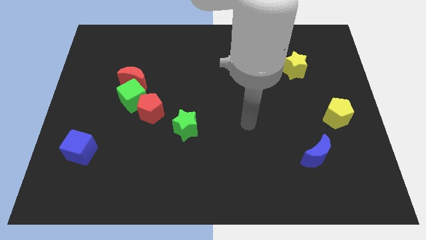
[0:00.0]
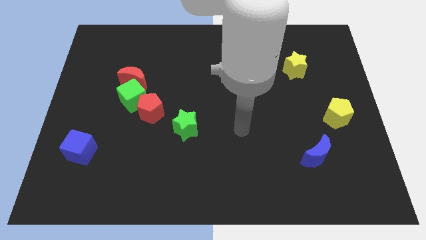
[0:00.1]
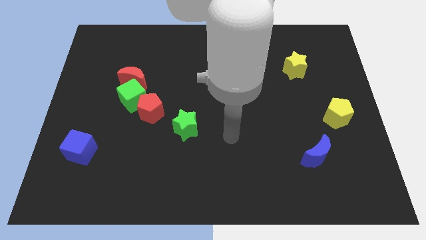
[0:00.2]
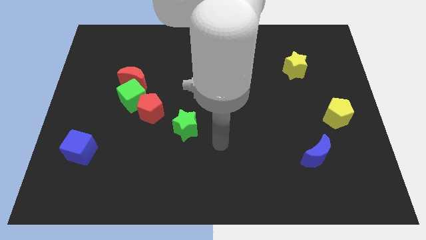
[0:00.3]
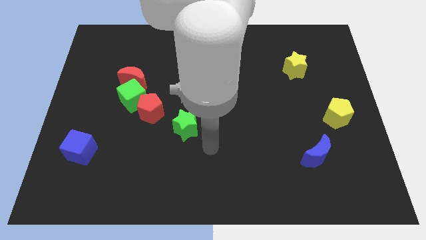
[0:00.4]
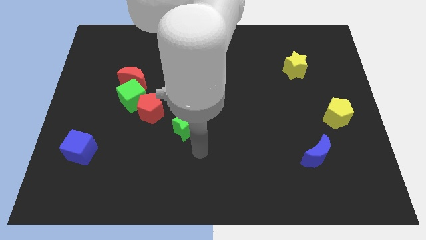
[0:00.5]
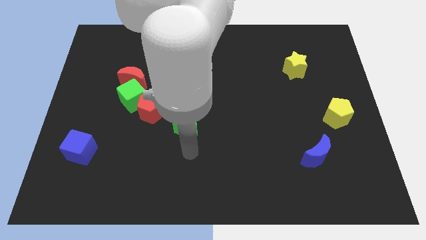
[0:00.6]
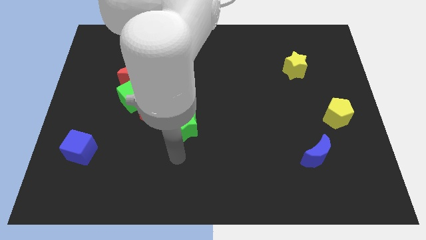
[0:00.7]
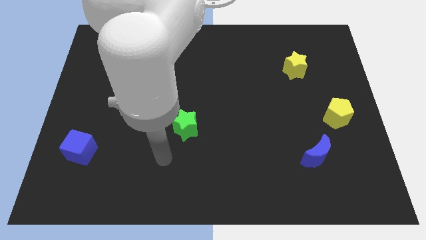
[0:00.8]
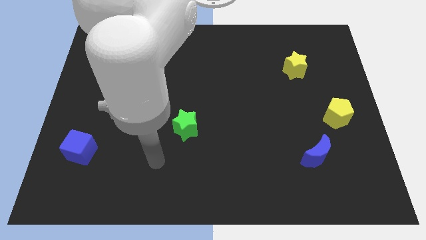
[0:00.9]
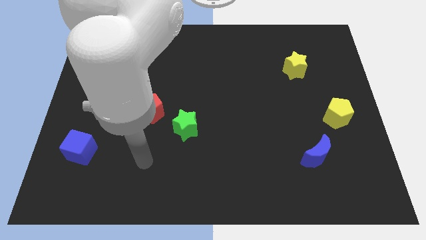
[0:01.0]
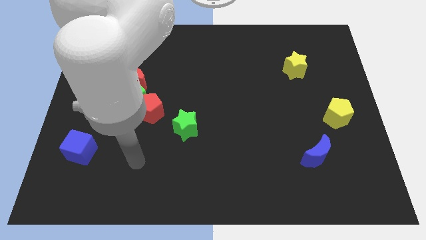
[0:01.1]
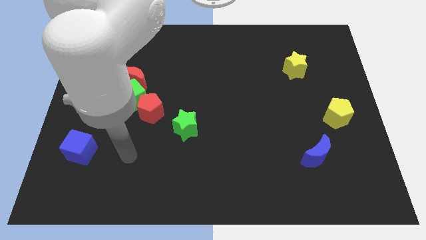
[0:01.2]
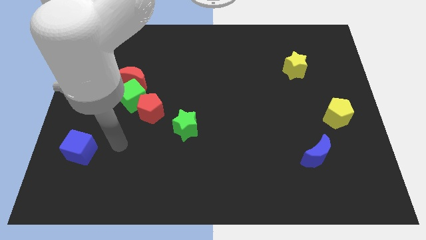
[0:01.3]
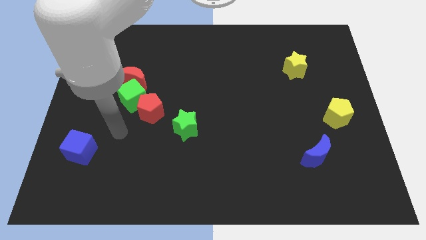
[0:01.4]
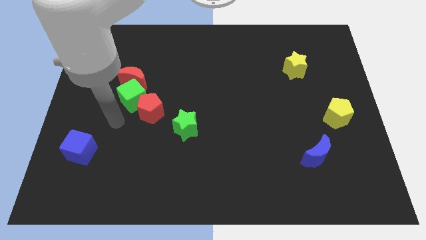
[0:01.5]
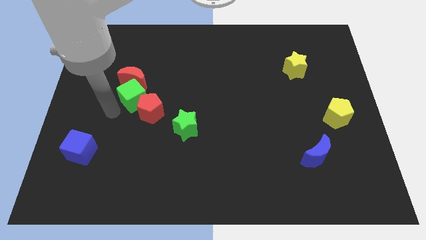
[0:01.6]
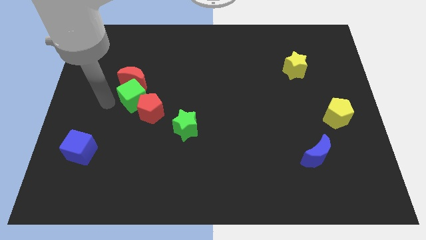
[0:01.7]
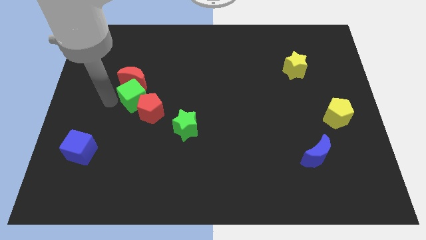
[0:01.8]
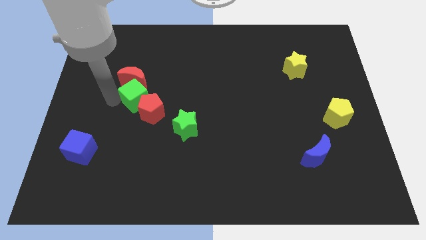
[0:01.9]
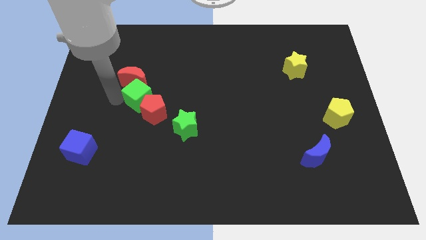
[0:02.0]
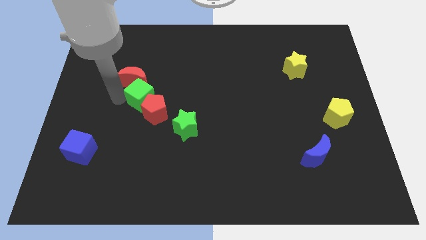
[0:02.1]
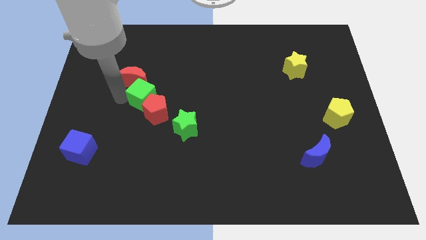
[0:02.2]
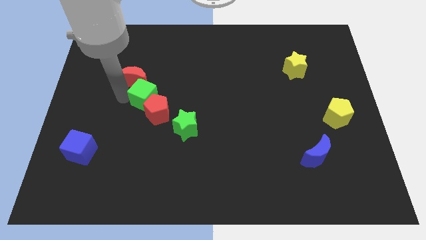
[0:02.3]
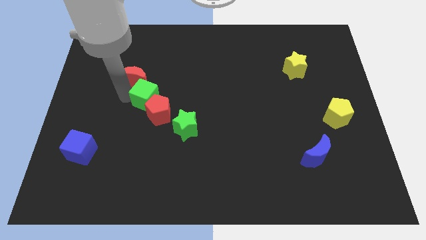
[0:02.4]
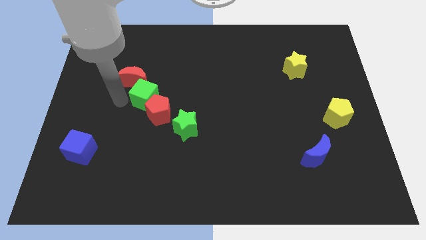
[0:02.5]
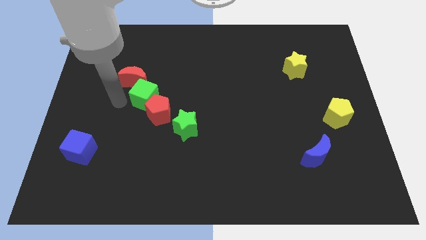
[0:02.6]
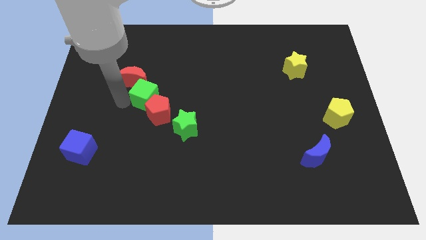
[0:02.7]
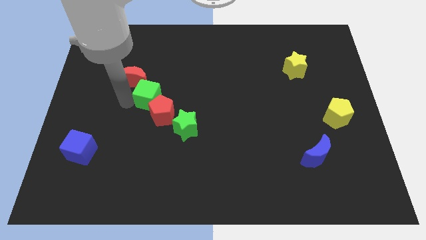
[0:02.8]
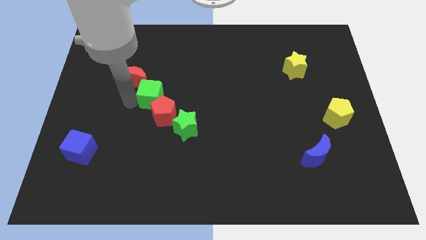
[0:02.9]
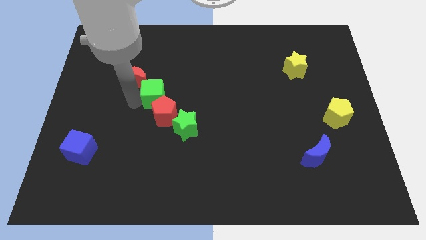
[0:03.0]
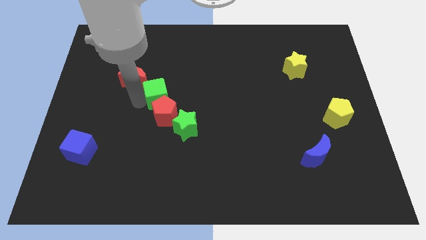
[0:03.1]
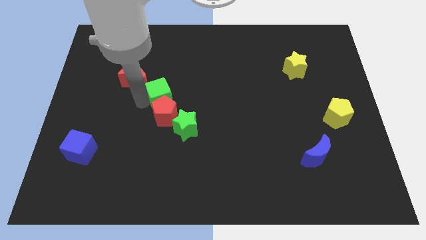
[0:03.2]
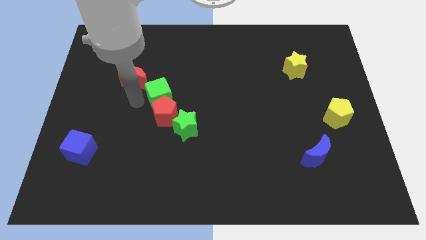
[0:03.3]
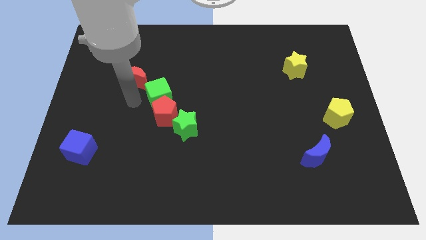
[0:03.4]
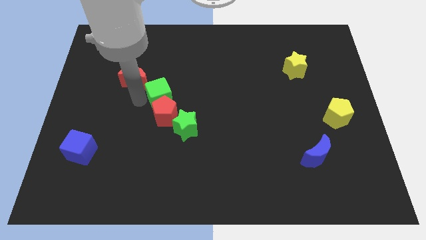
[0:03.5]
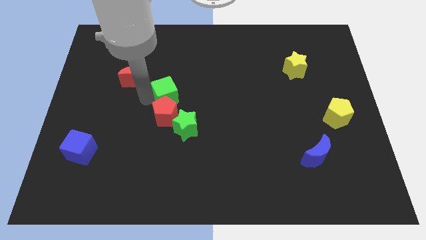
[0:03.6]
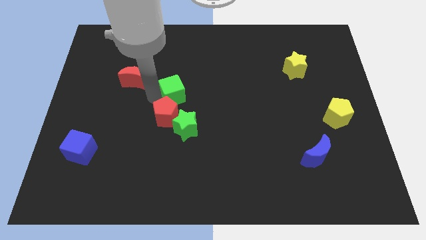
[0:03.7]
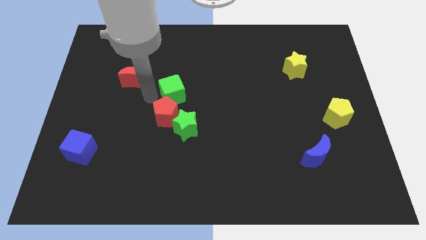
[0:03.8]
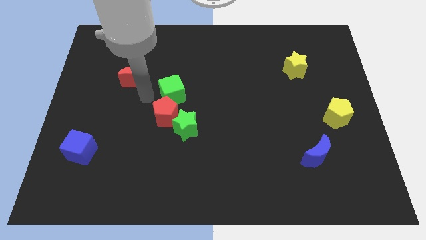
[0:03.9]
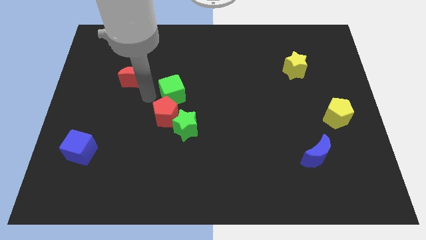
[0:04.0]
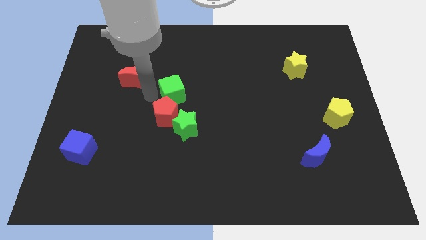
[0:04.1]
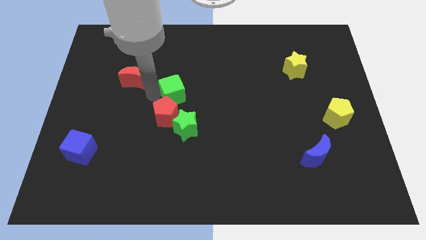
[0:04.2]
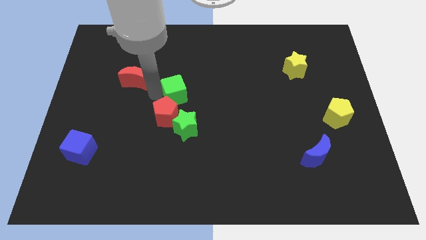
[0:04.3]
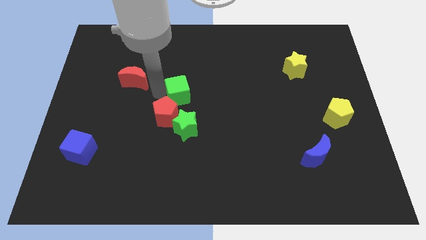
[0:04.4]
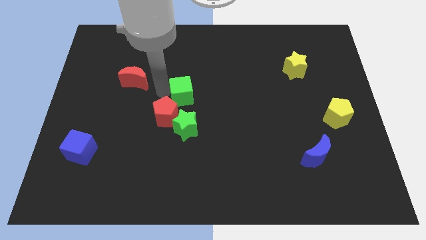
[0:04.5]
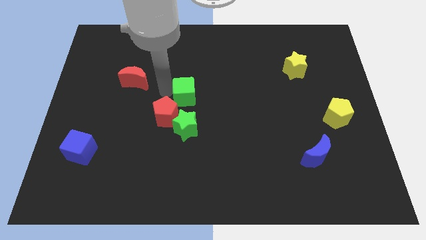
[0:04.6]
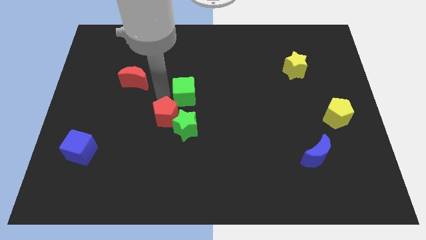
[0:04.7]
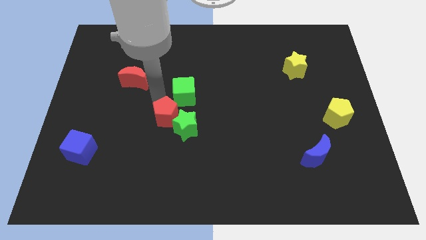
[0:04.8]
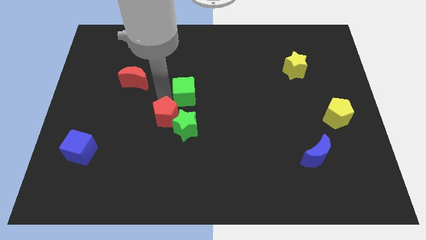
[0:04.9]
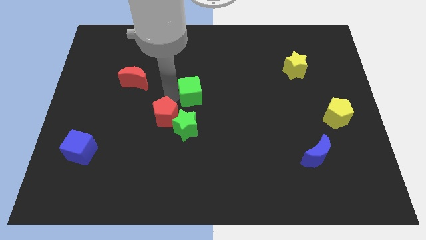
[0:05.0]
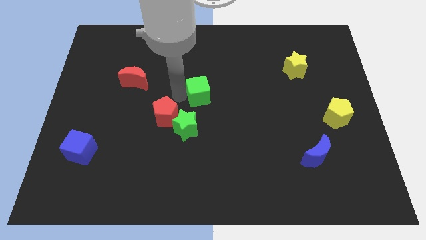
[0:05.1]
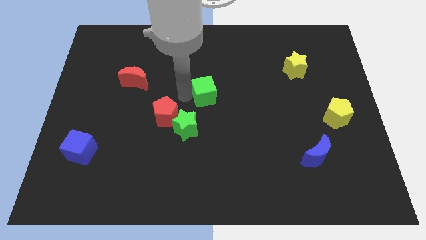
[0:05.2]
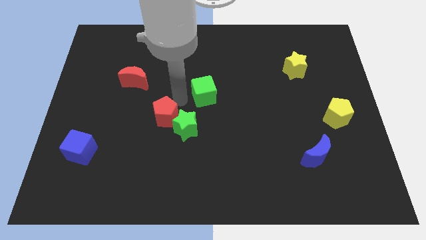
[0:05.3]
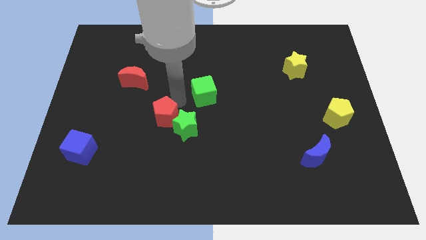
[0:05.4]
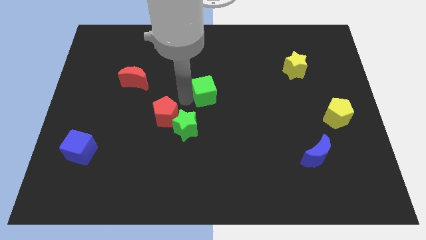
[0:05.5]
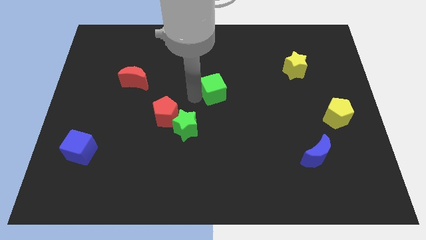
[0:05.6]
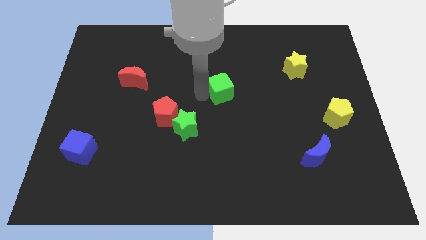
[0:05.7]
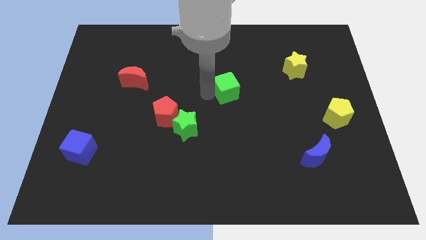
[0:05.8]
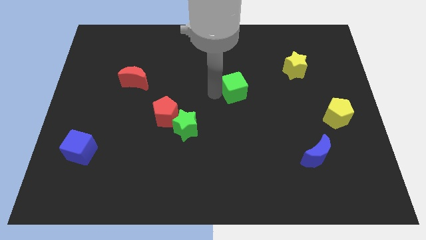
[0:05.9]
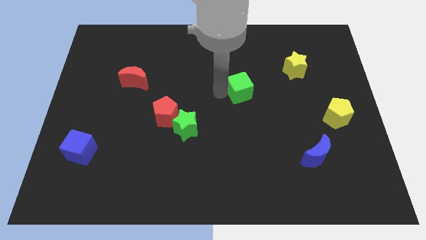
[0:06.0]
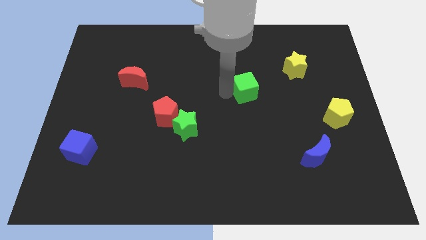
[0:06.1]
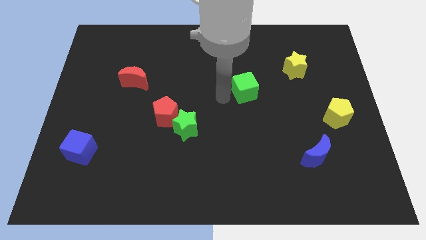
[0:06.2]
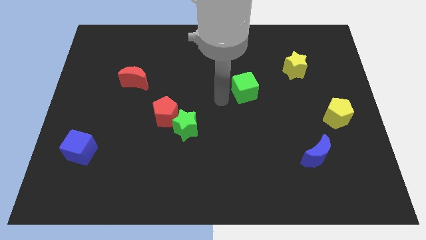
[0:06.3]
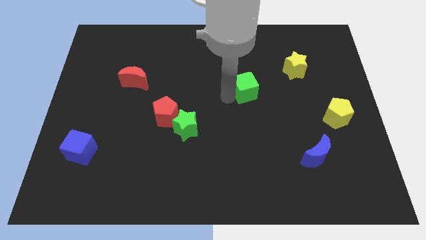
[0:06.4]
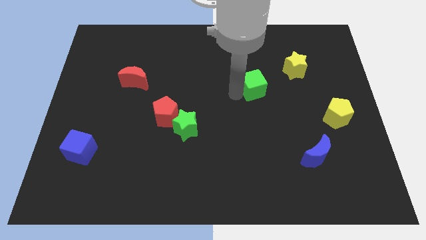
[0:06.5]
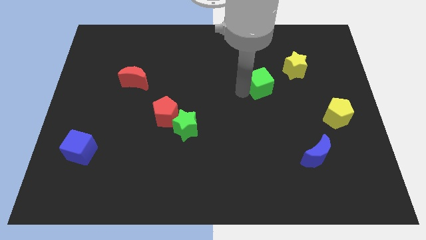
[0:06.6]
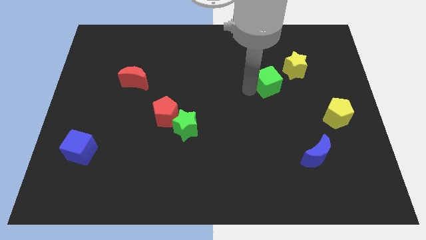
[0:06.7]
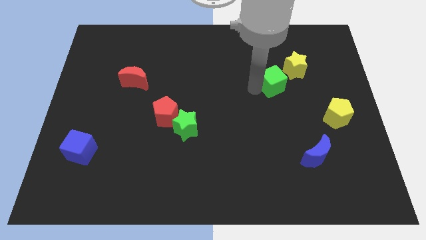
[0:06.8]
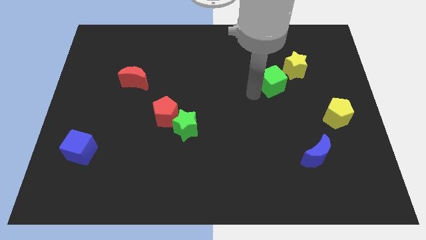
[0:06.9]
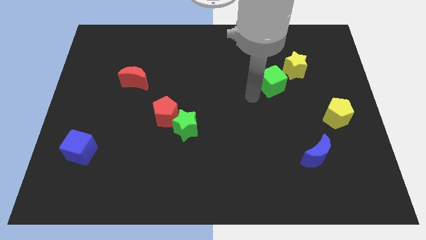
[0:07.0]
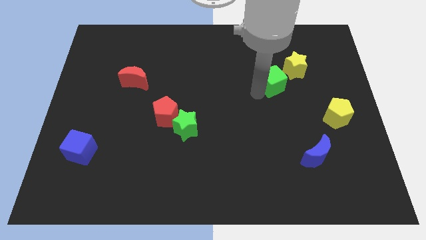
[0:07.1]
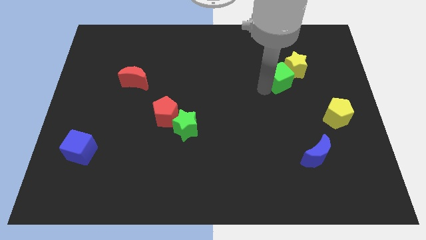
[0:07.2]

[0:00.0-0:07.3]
put the green cube towards the yellow star
